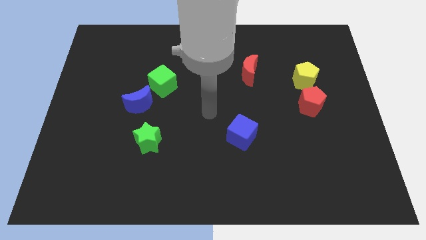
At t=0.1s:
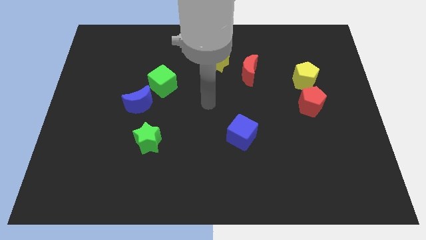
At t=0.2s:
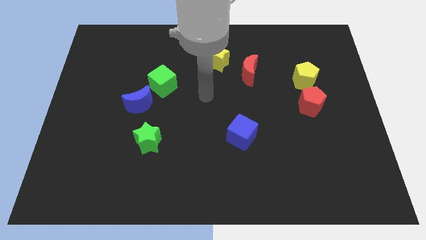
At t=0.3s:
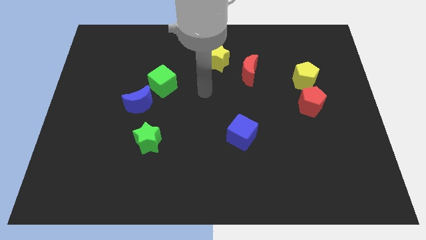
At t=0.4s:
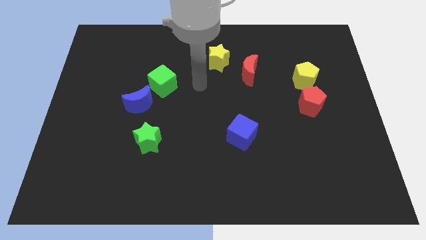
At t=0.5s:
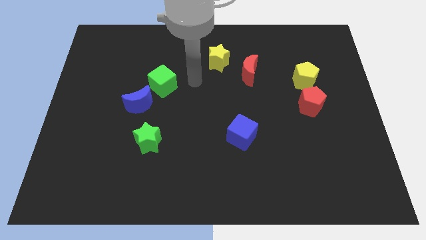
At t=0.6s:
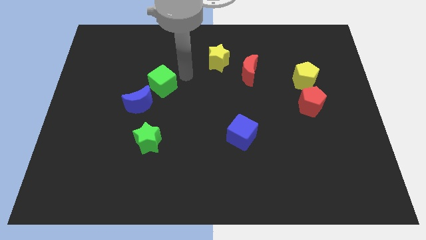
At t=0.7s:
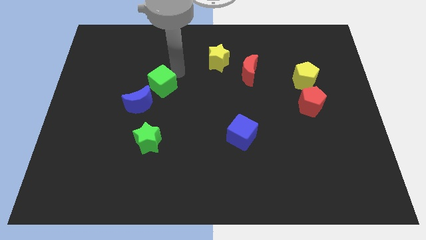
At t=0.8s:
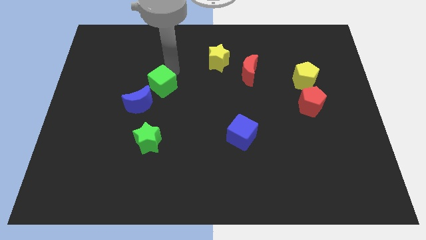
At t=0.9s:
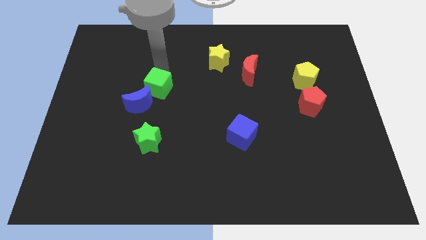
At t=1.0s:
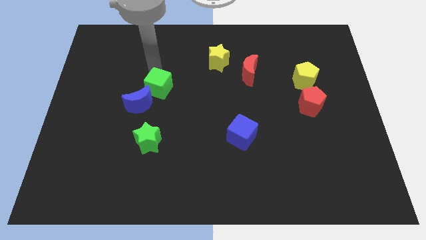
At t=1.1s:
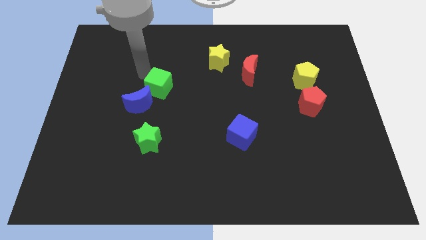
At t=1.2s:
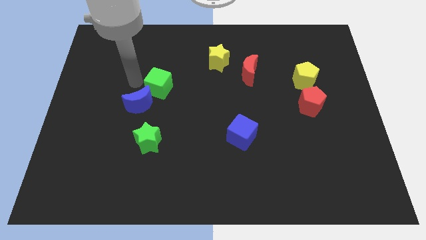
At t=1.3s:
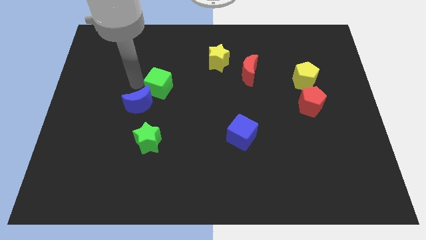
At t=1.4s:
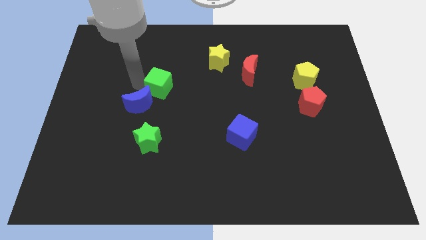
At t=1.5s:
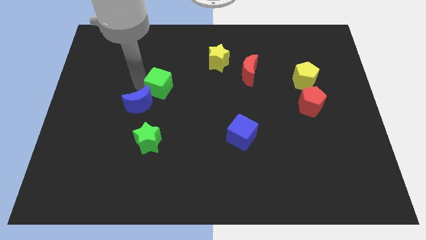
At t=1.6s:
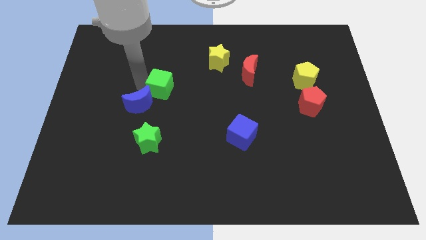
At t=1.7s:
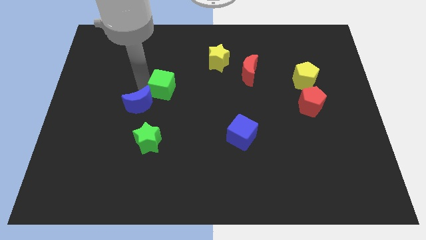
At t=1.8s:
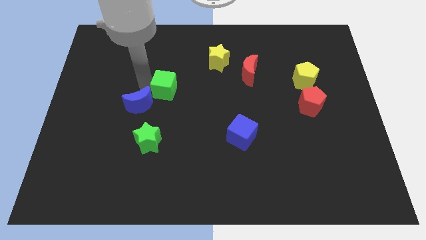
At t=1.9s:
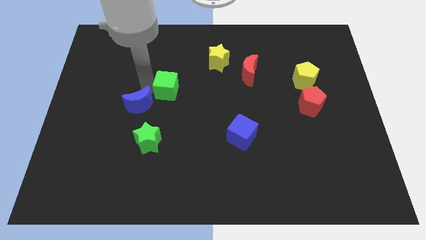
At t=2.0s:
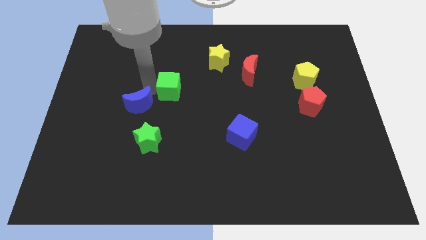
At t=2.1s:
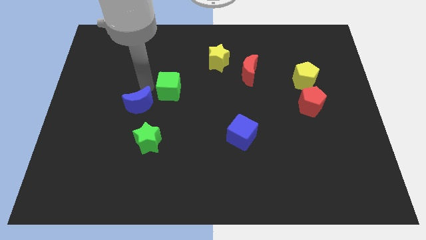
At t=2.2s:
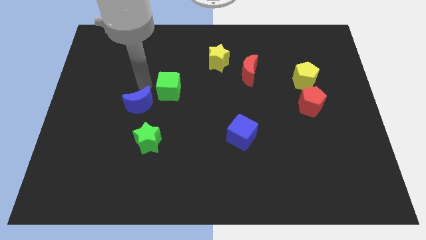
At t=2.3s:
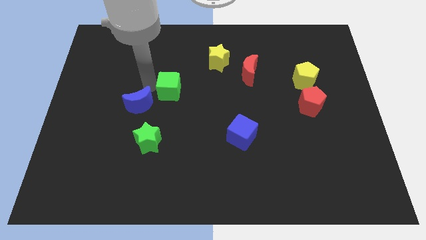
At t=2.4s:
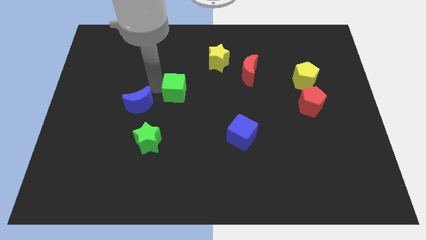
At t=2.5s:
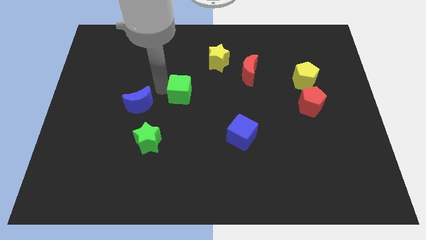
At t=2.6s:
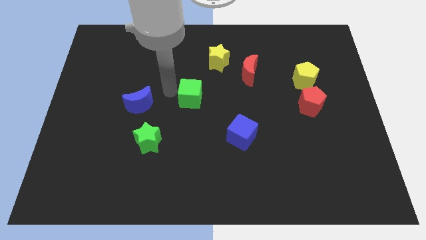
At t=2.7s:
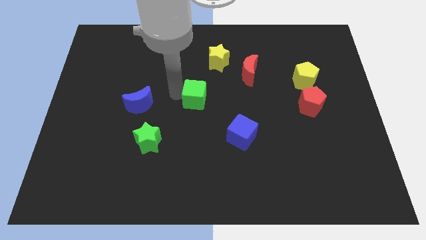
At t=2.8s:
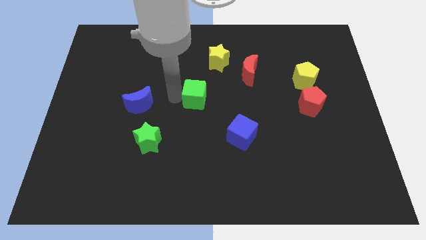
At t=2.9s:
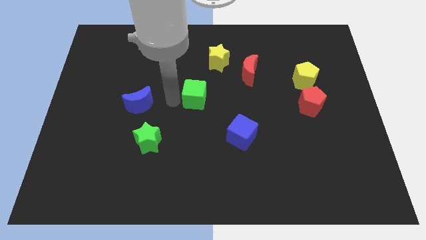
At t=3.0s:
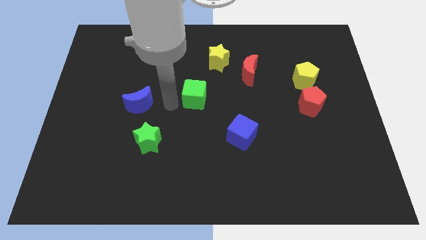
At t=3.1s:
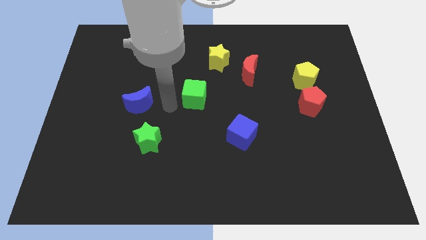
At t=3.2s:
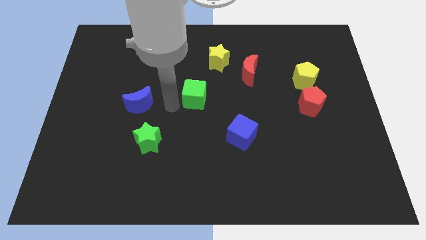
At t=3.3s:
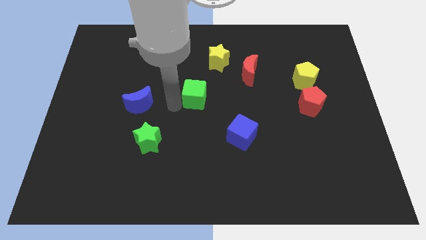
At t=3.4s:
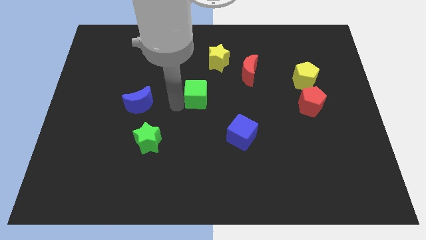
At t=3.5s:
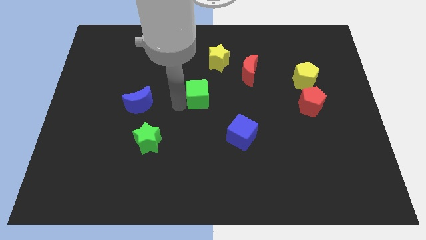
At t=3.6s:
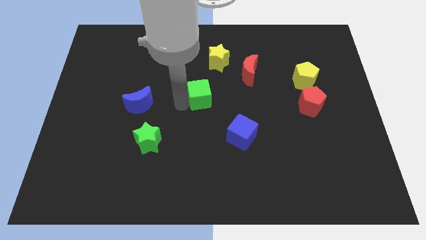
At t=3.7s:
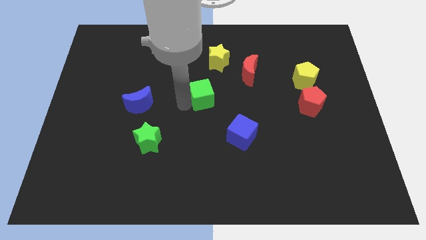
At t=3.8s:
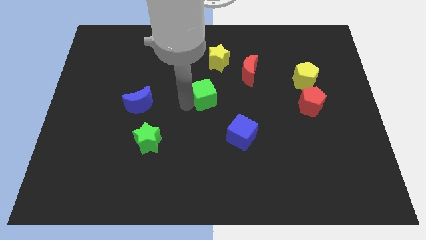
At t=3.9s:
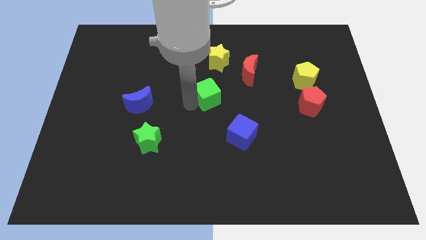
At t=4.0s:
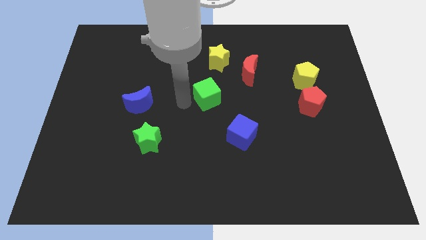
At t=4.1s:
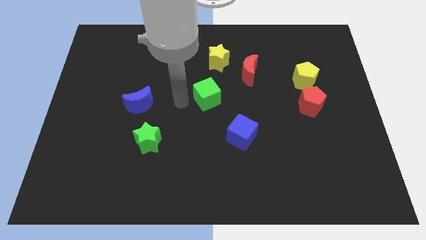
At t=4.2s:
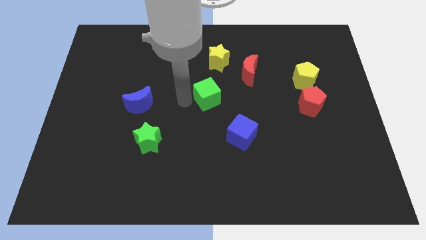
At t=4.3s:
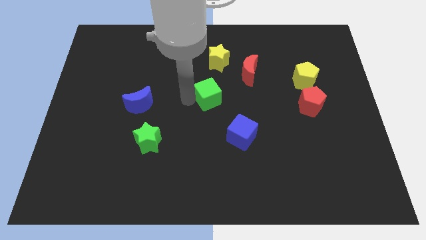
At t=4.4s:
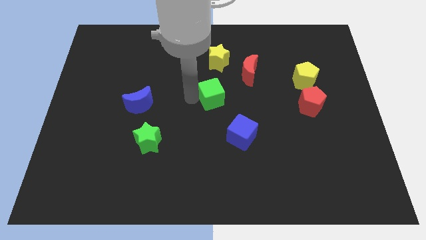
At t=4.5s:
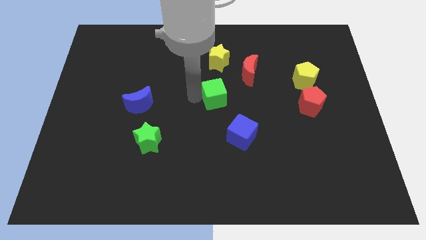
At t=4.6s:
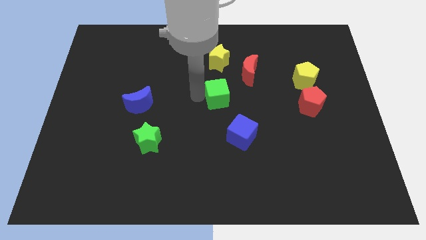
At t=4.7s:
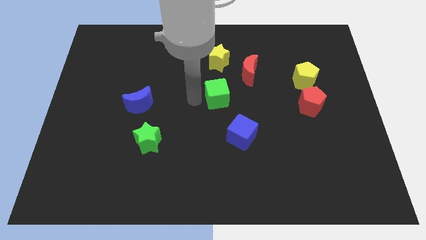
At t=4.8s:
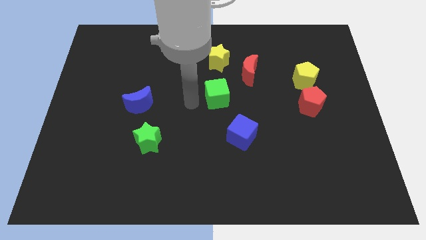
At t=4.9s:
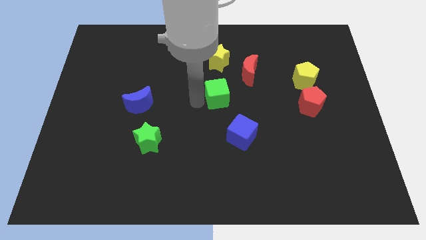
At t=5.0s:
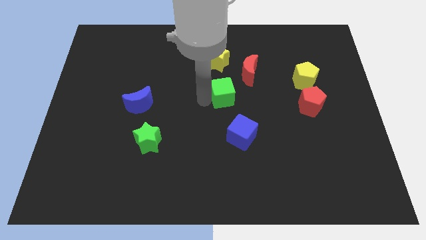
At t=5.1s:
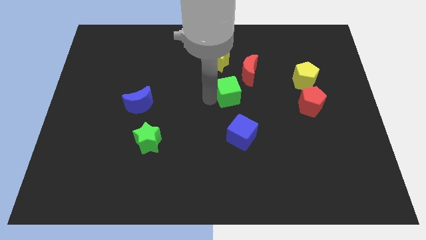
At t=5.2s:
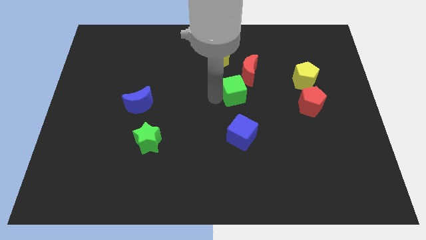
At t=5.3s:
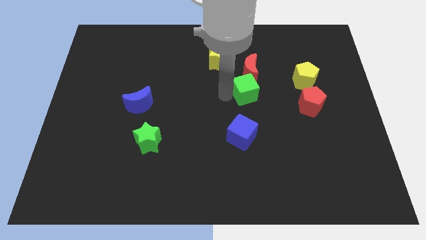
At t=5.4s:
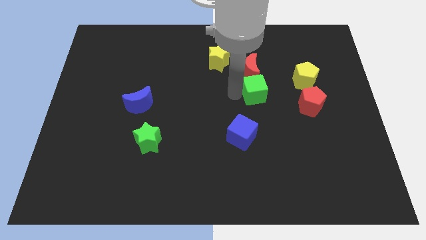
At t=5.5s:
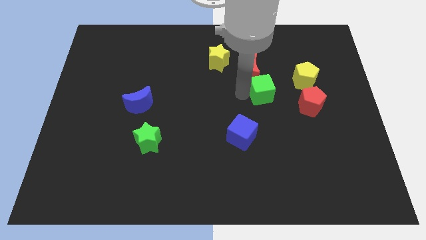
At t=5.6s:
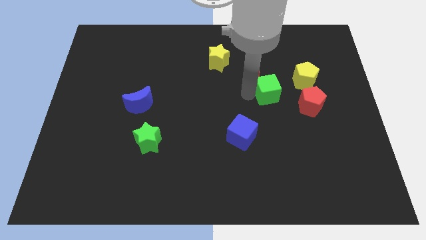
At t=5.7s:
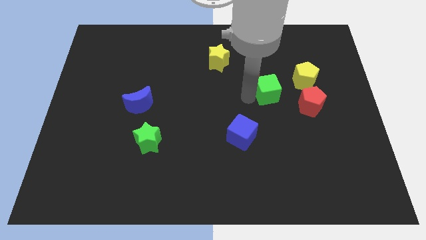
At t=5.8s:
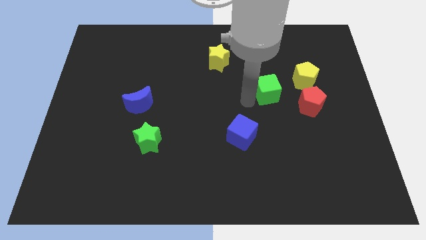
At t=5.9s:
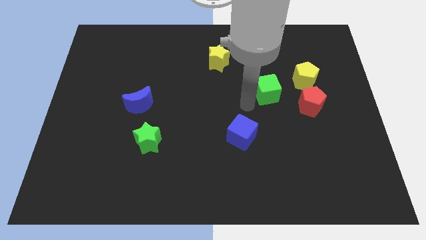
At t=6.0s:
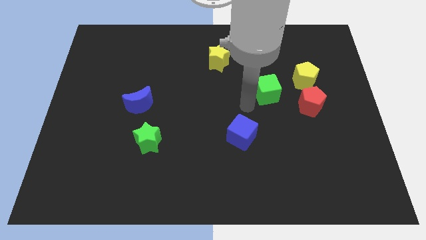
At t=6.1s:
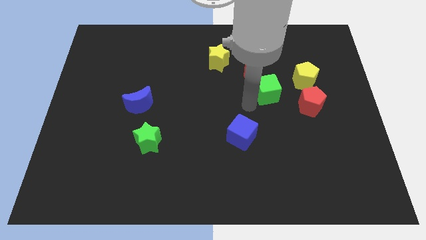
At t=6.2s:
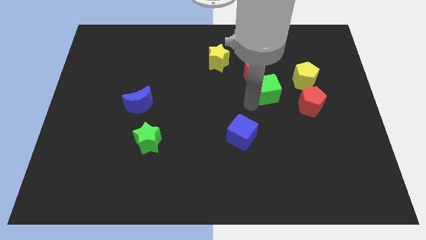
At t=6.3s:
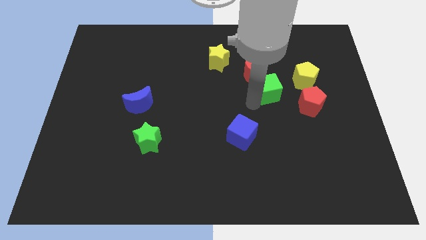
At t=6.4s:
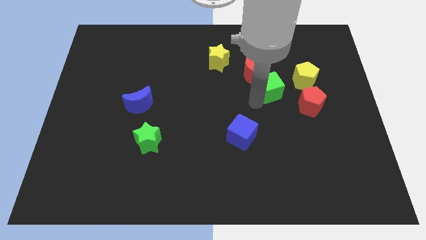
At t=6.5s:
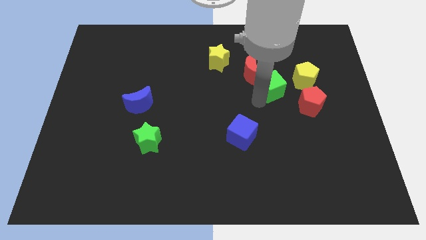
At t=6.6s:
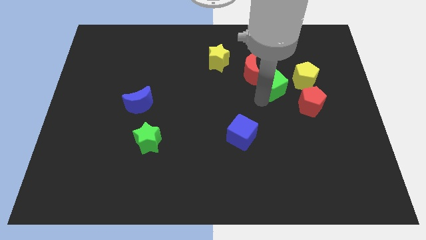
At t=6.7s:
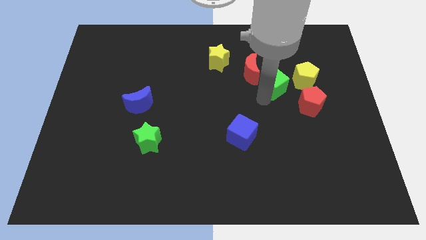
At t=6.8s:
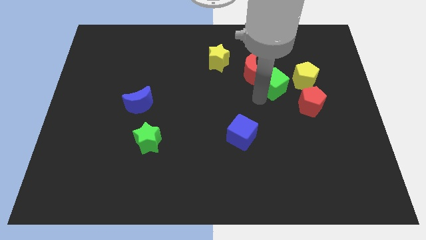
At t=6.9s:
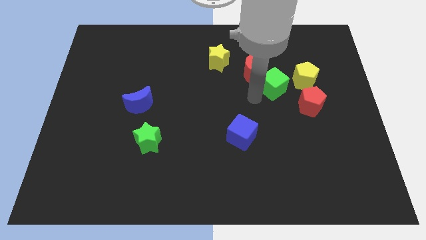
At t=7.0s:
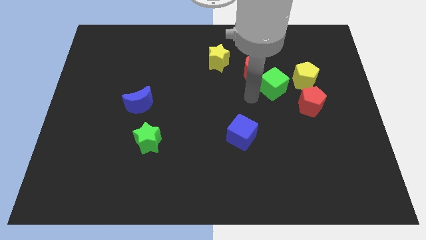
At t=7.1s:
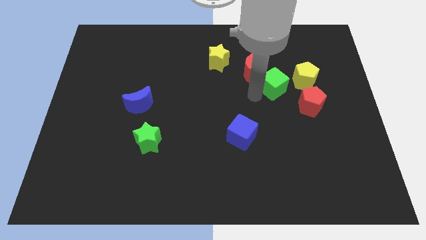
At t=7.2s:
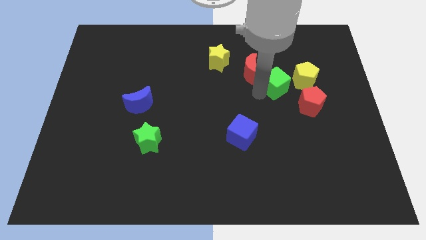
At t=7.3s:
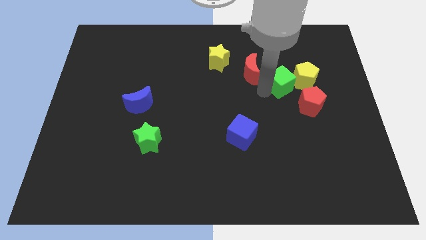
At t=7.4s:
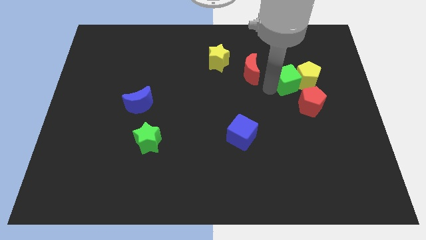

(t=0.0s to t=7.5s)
move the green cube to the yellow pentagon
